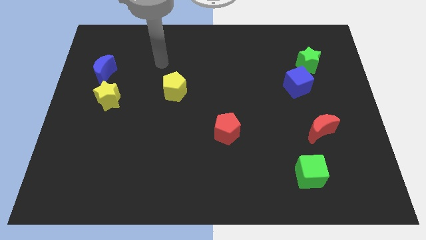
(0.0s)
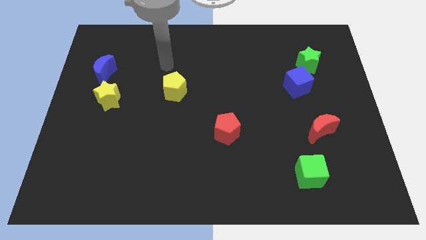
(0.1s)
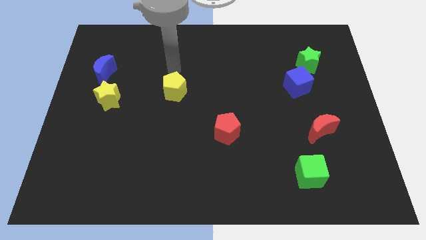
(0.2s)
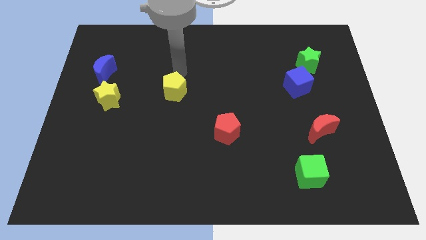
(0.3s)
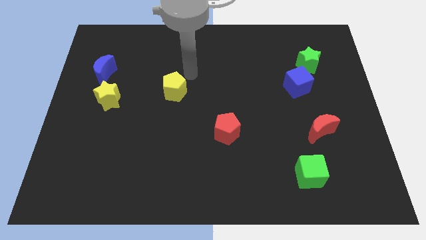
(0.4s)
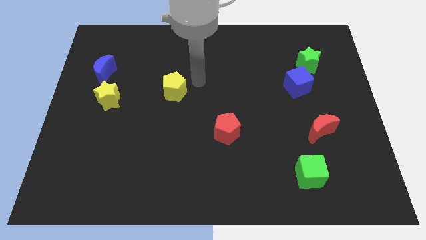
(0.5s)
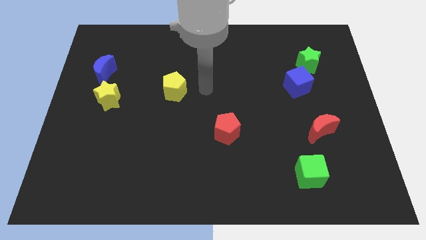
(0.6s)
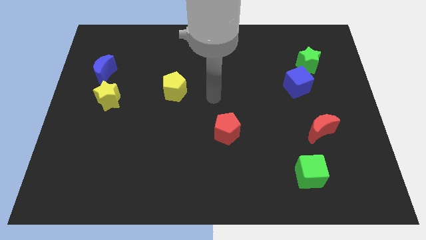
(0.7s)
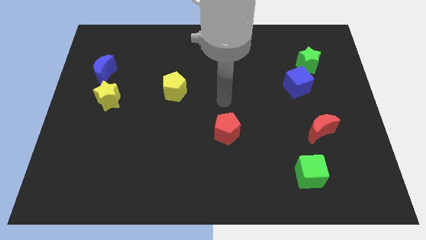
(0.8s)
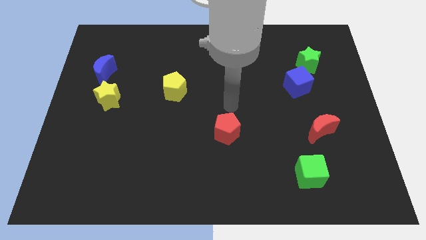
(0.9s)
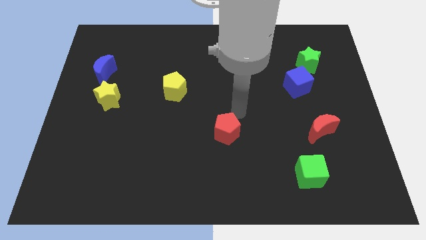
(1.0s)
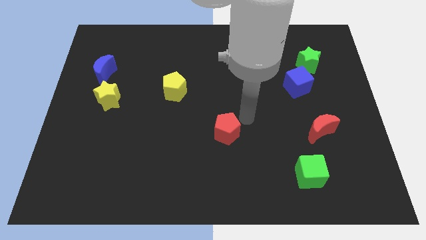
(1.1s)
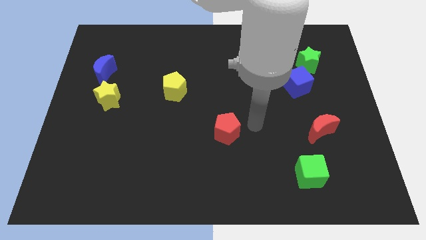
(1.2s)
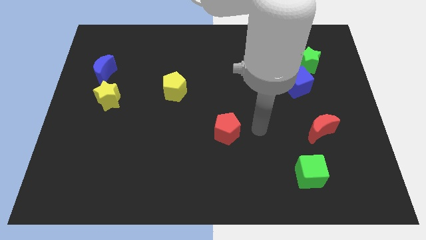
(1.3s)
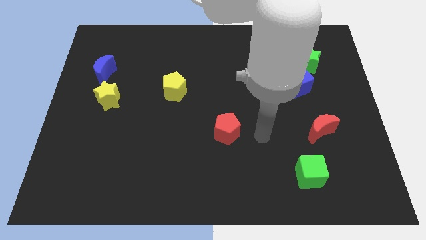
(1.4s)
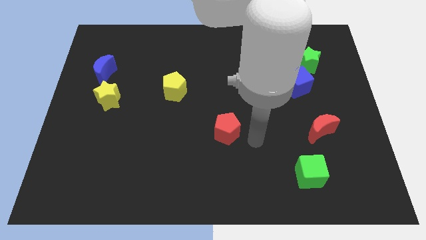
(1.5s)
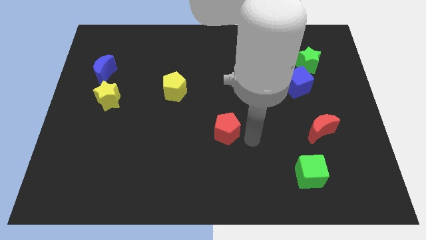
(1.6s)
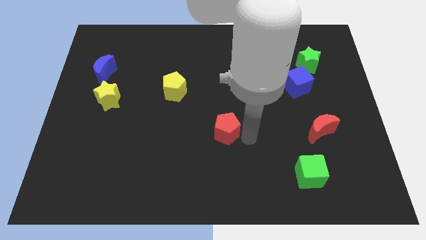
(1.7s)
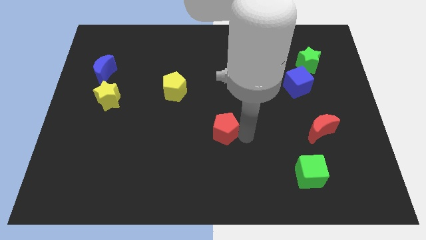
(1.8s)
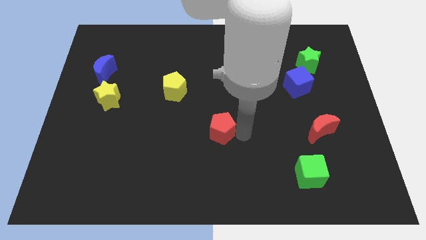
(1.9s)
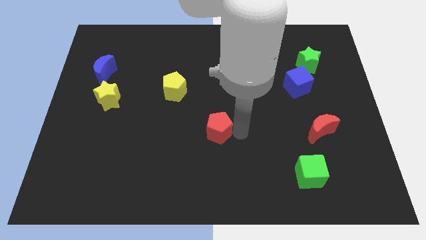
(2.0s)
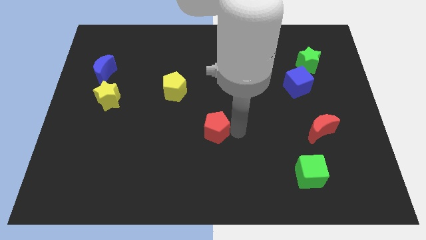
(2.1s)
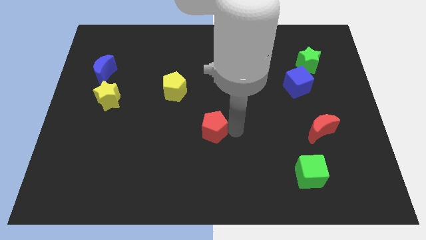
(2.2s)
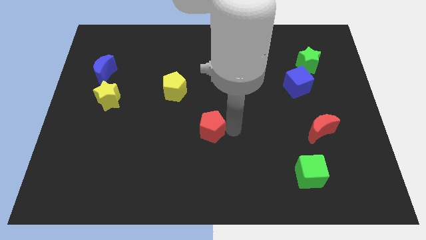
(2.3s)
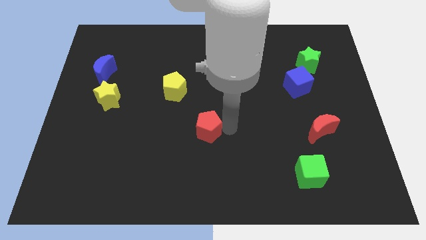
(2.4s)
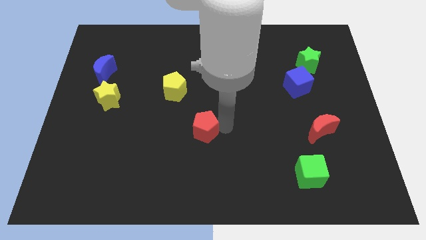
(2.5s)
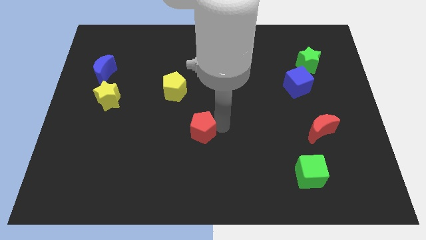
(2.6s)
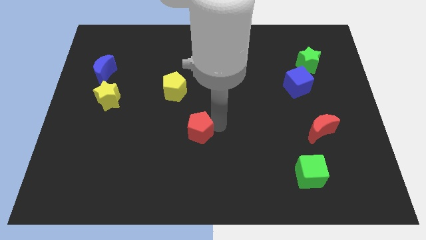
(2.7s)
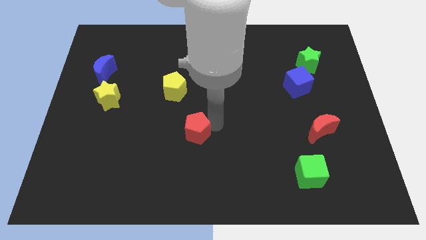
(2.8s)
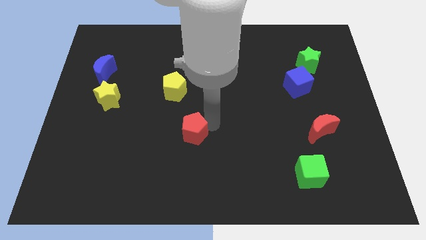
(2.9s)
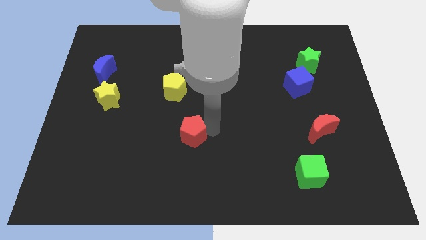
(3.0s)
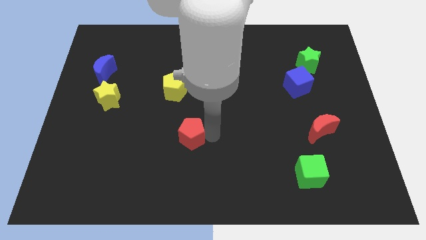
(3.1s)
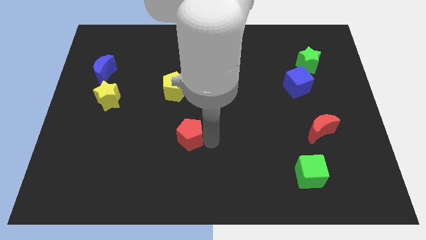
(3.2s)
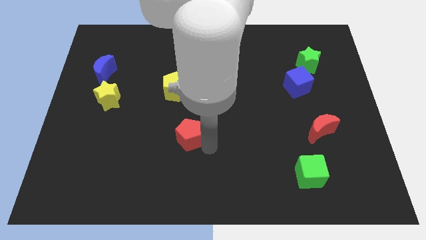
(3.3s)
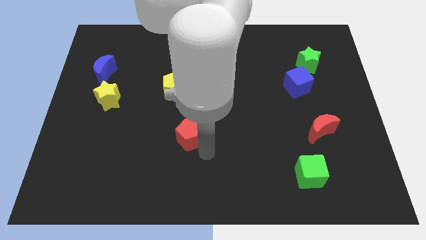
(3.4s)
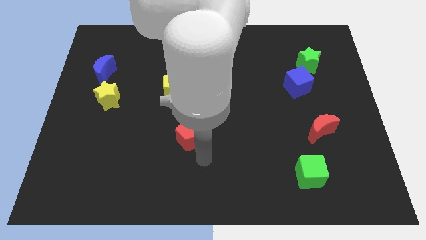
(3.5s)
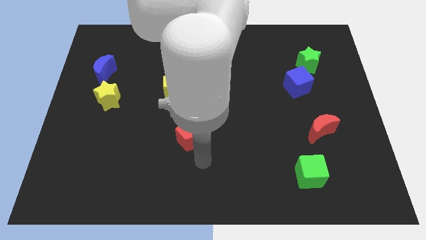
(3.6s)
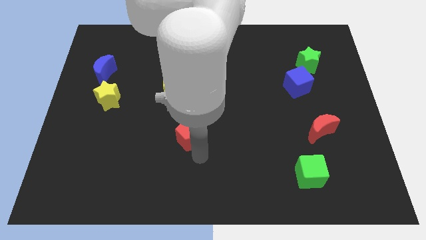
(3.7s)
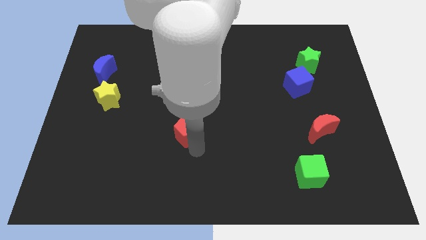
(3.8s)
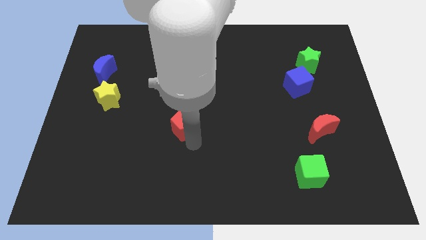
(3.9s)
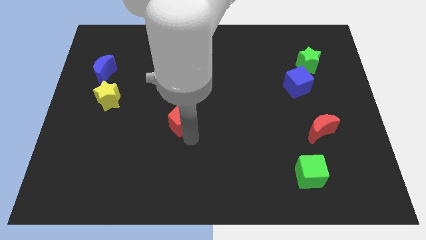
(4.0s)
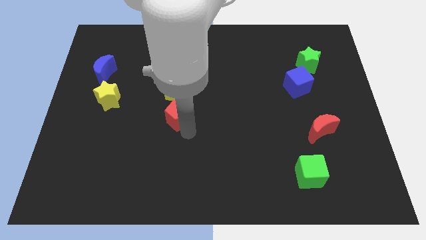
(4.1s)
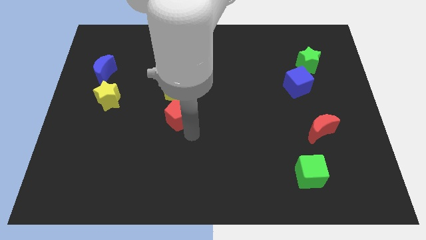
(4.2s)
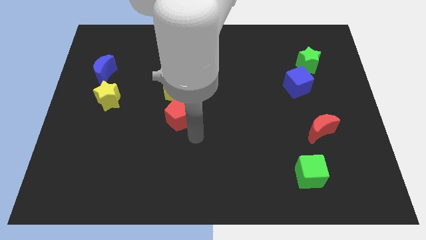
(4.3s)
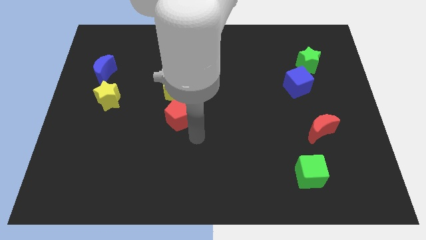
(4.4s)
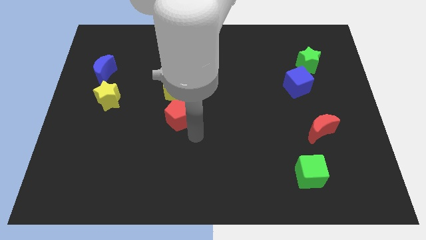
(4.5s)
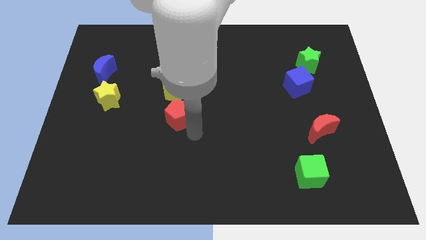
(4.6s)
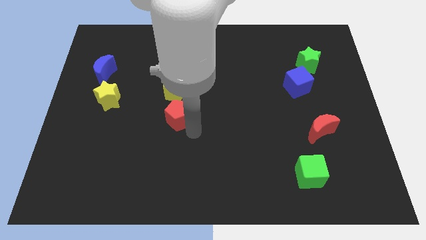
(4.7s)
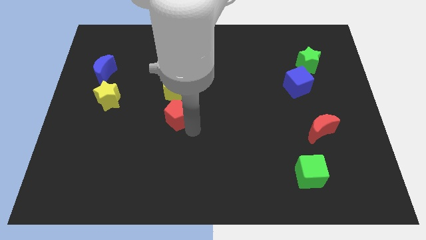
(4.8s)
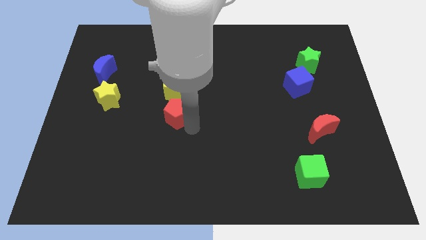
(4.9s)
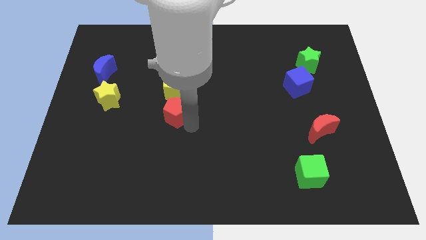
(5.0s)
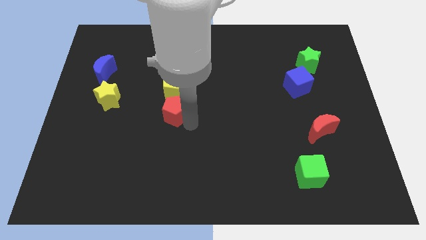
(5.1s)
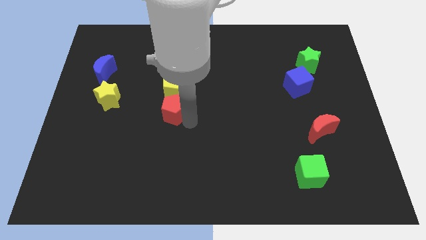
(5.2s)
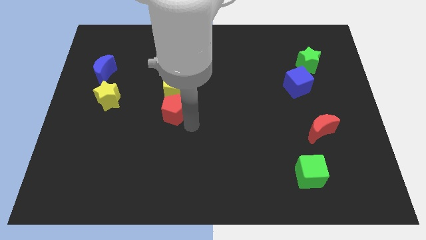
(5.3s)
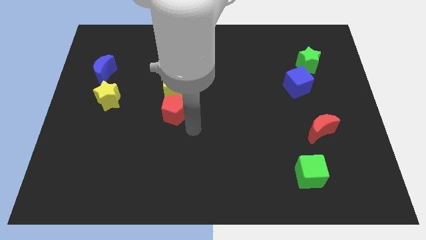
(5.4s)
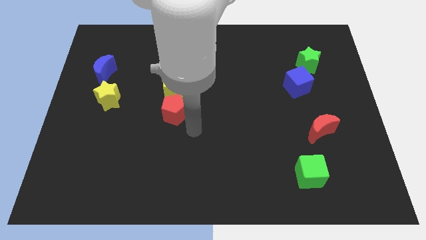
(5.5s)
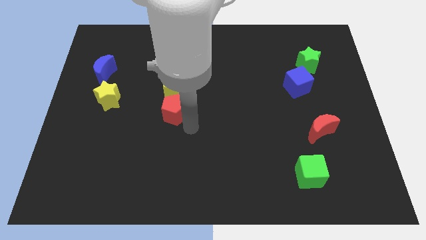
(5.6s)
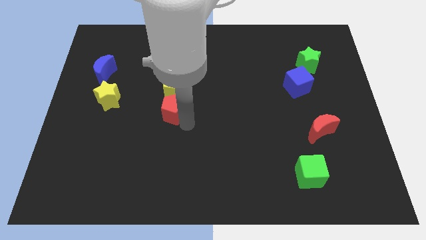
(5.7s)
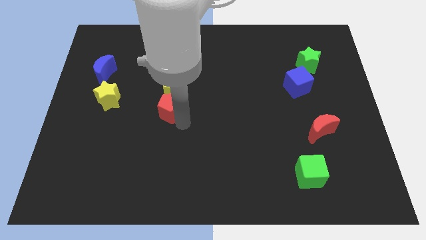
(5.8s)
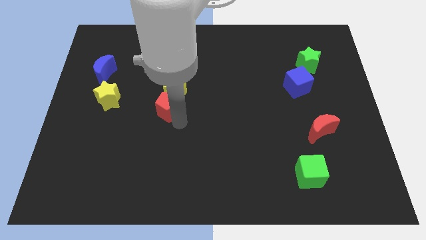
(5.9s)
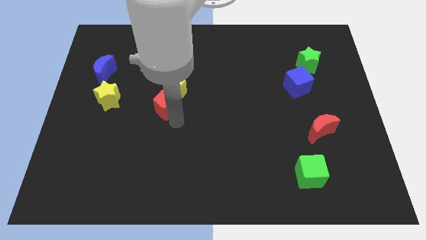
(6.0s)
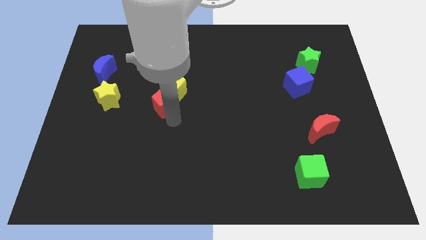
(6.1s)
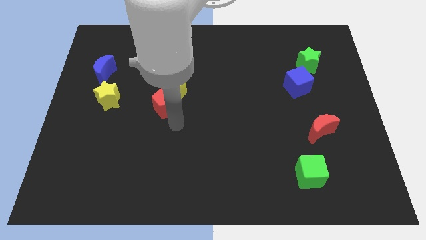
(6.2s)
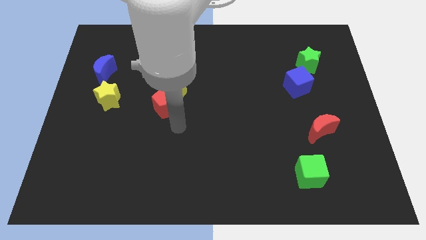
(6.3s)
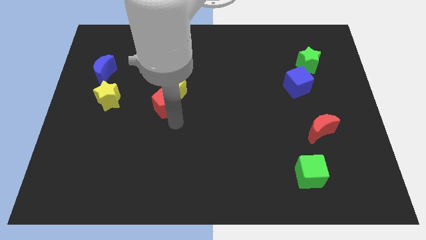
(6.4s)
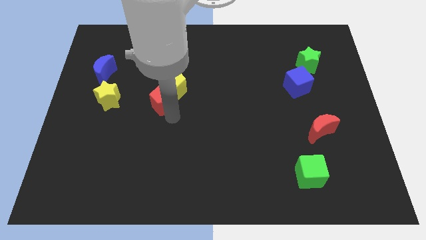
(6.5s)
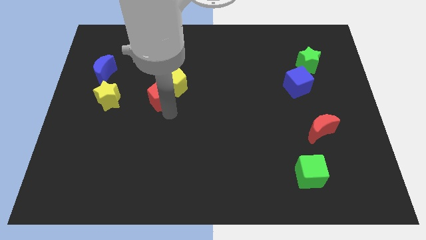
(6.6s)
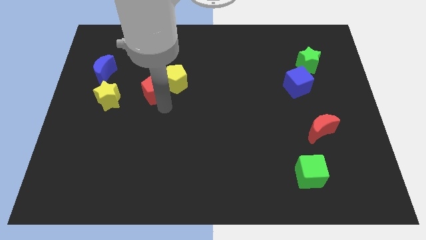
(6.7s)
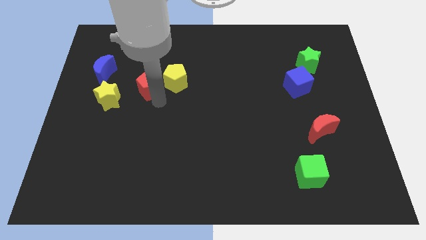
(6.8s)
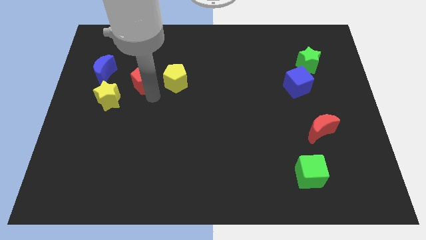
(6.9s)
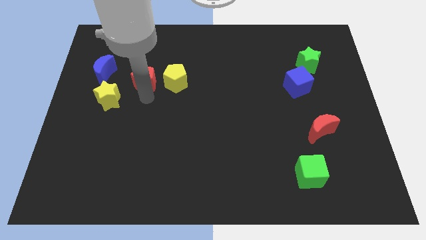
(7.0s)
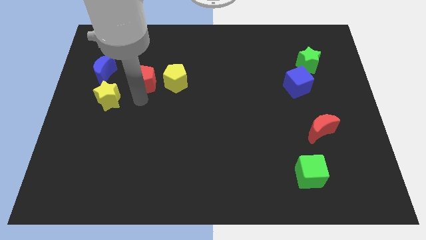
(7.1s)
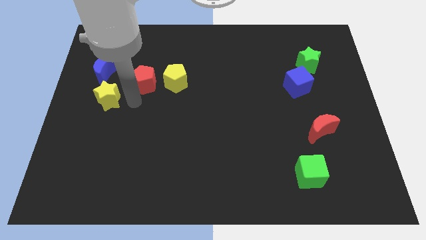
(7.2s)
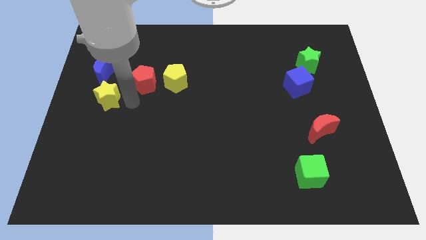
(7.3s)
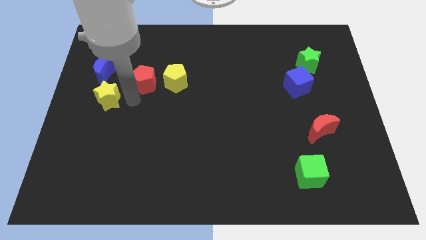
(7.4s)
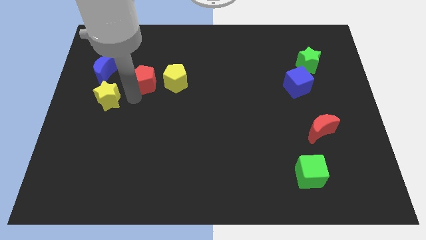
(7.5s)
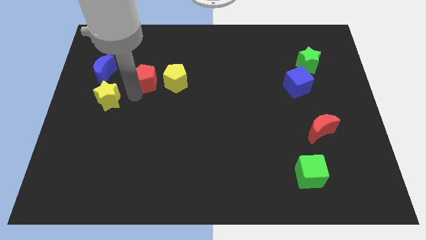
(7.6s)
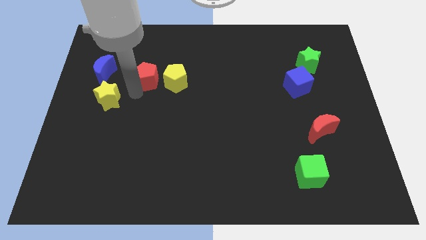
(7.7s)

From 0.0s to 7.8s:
slide the red pentagon to the top left side of the yellow pentagon
